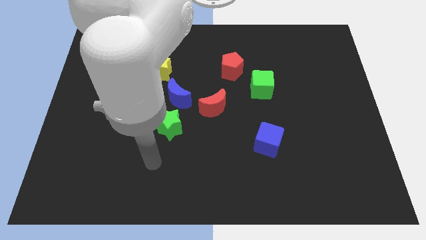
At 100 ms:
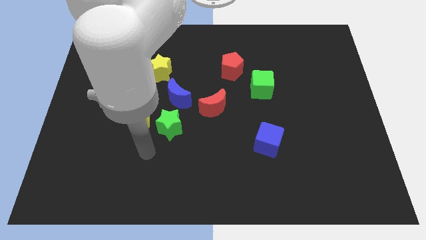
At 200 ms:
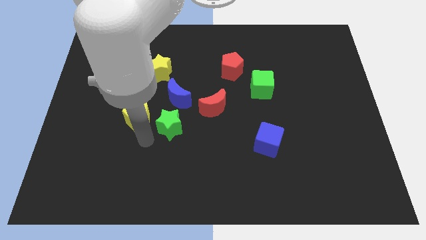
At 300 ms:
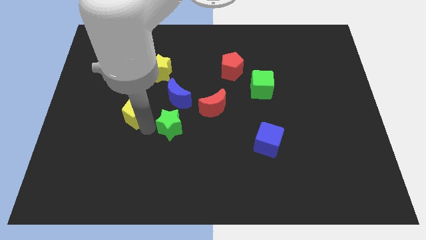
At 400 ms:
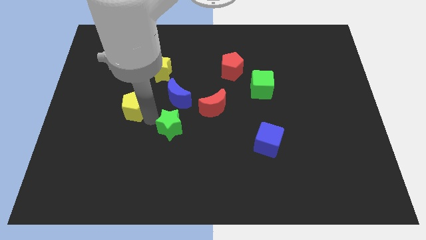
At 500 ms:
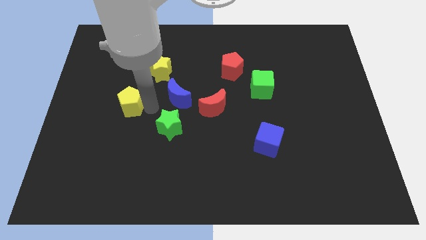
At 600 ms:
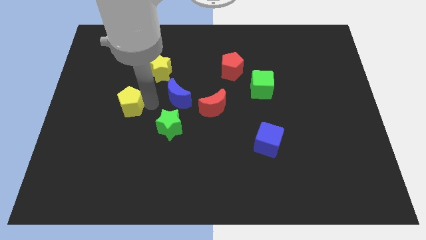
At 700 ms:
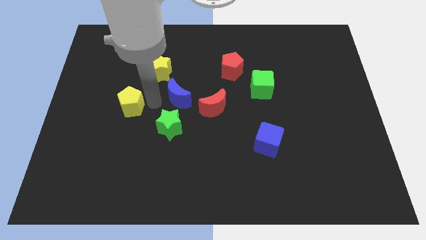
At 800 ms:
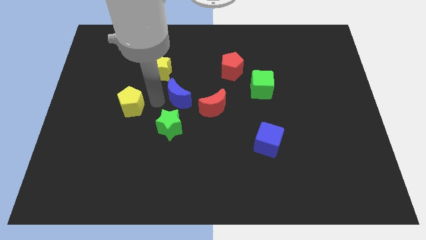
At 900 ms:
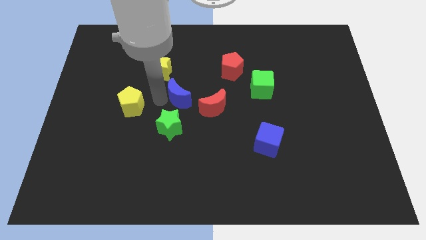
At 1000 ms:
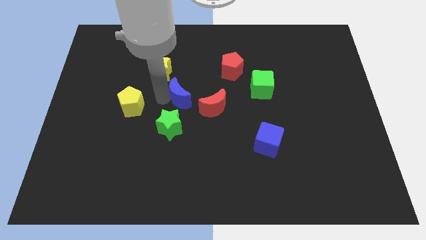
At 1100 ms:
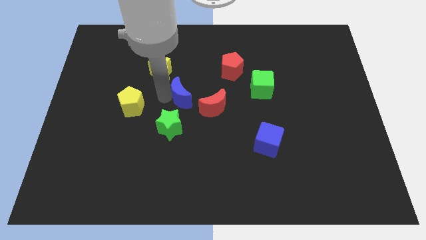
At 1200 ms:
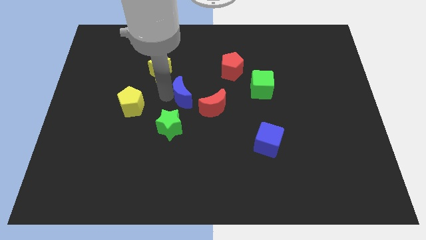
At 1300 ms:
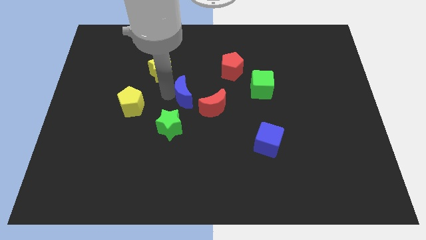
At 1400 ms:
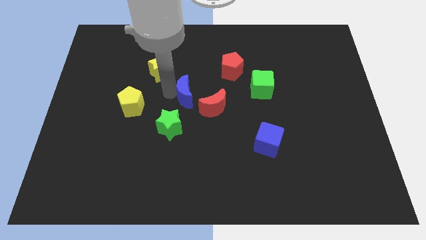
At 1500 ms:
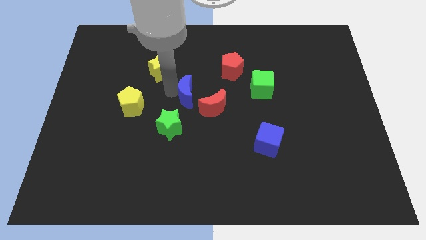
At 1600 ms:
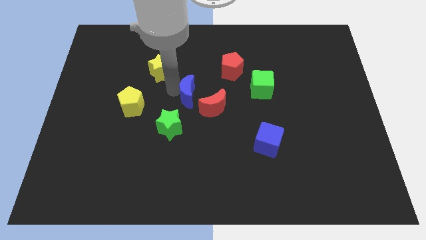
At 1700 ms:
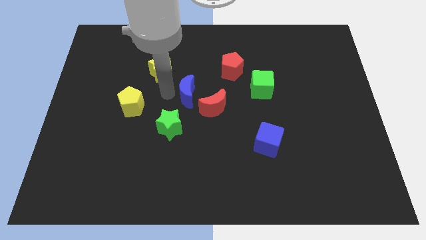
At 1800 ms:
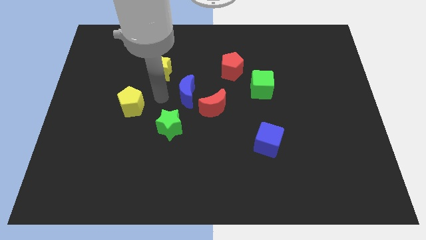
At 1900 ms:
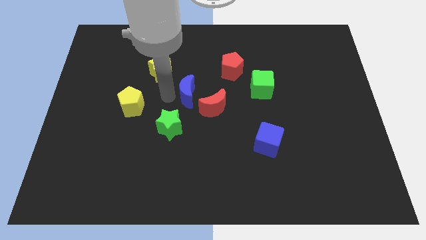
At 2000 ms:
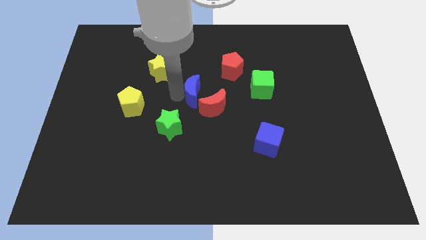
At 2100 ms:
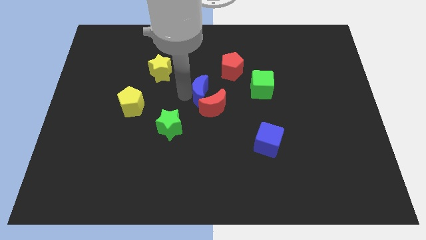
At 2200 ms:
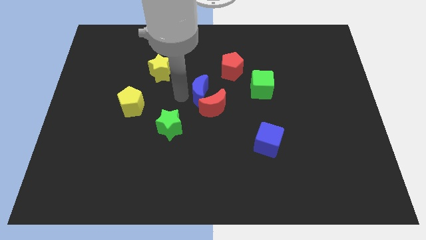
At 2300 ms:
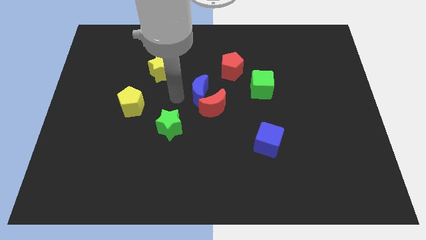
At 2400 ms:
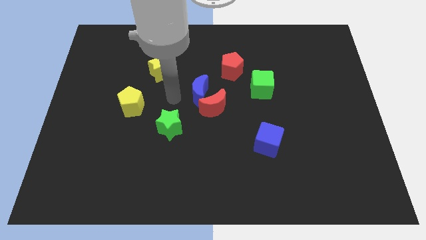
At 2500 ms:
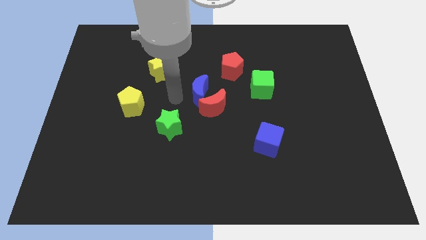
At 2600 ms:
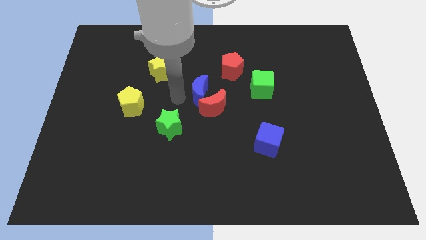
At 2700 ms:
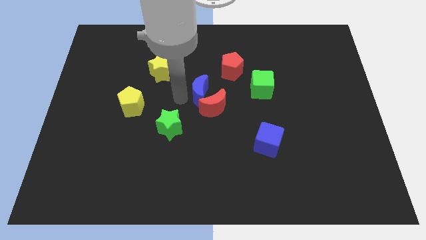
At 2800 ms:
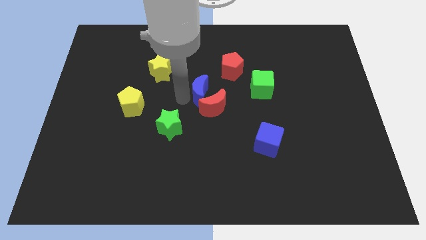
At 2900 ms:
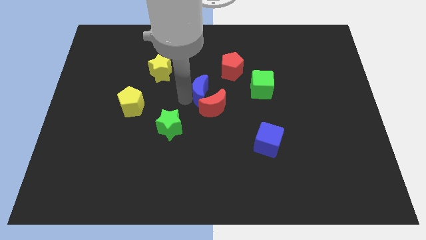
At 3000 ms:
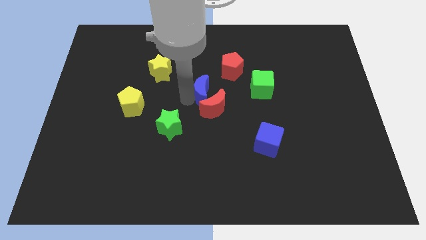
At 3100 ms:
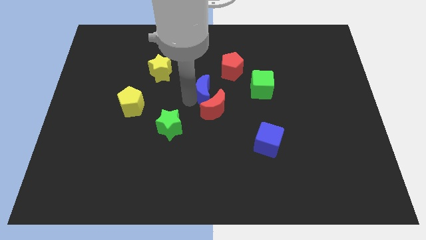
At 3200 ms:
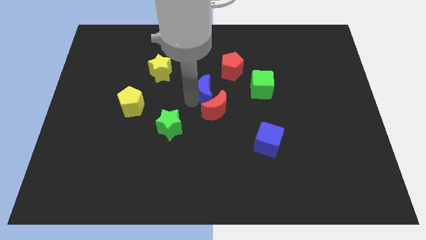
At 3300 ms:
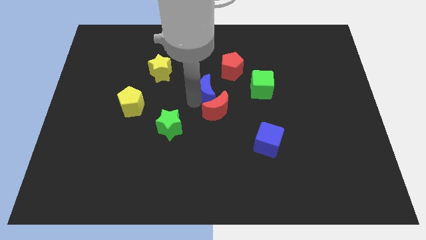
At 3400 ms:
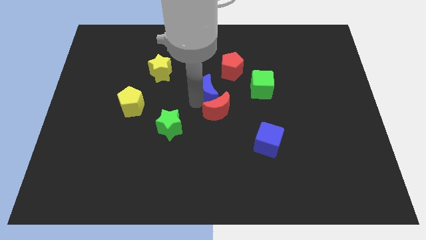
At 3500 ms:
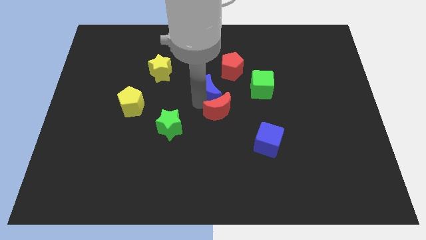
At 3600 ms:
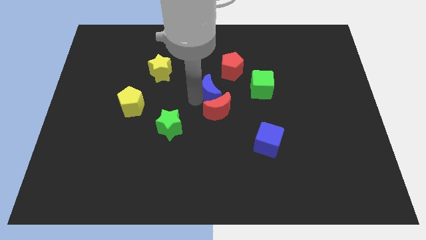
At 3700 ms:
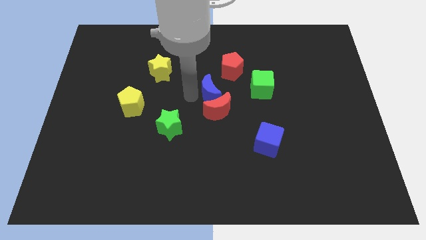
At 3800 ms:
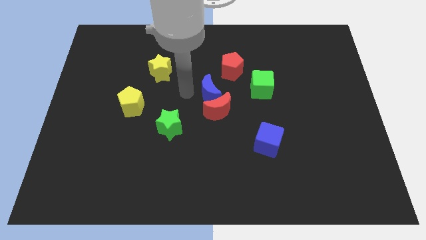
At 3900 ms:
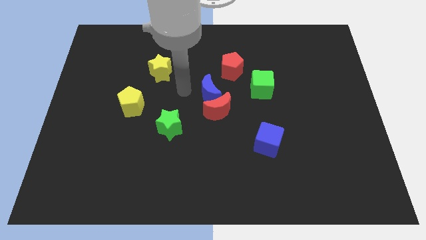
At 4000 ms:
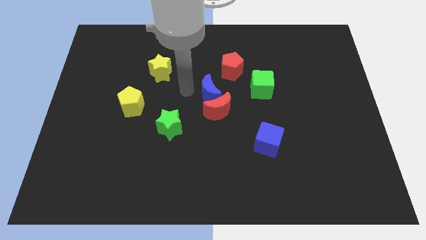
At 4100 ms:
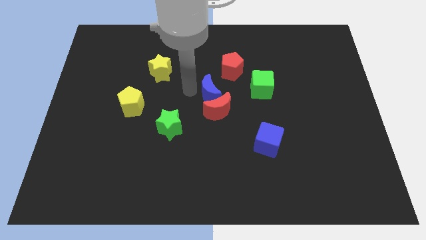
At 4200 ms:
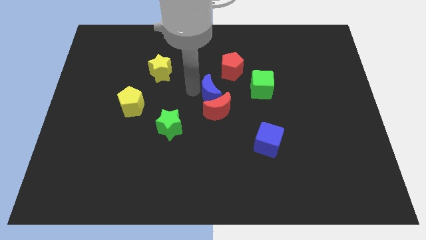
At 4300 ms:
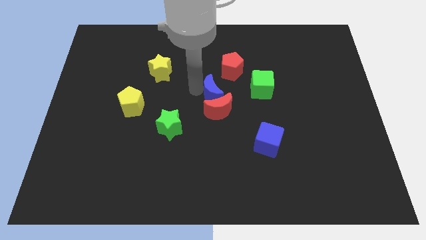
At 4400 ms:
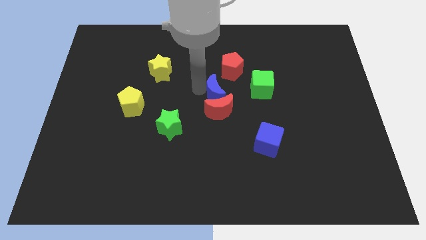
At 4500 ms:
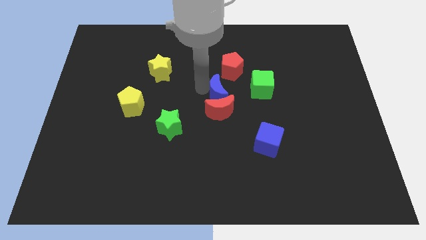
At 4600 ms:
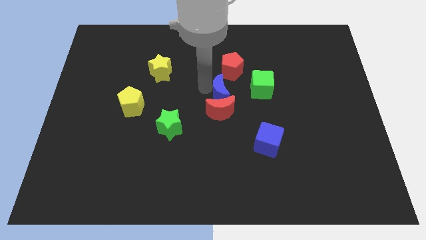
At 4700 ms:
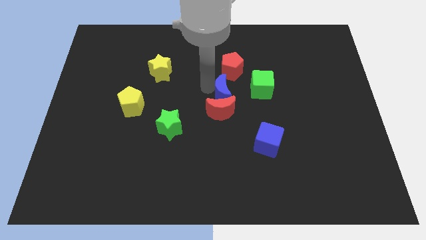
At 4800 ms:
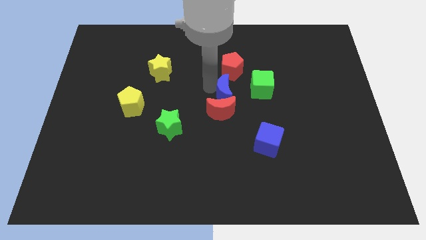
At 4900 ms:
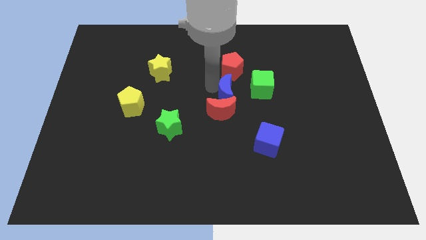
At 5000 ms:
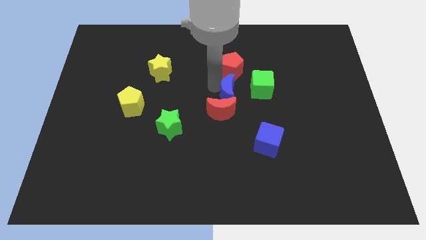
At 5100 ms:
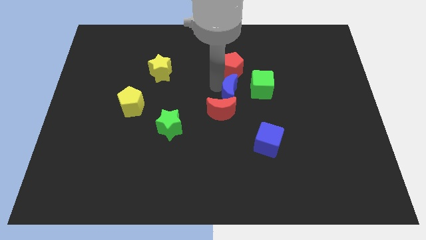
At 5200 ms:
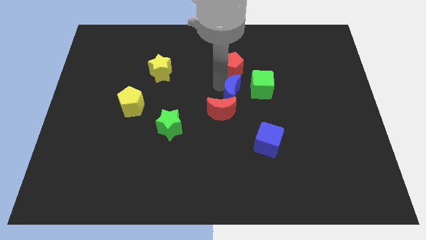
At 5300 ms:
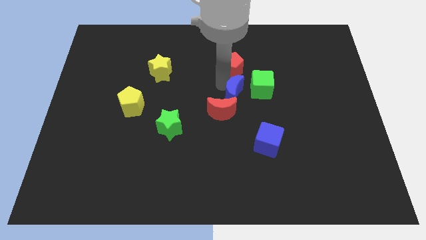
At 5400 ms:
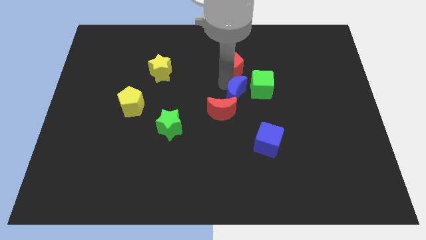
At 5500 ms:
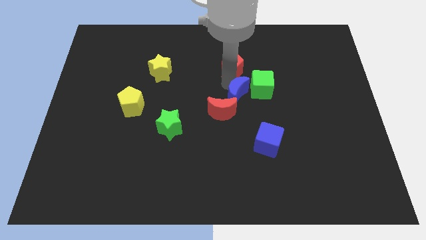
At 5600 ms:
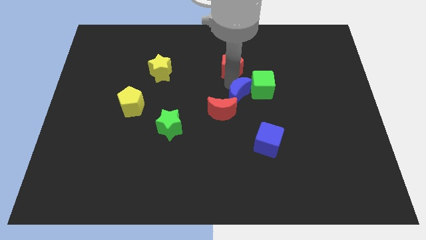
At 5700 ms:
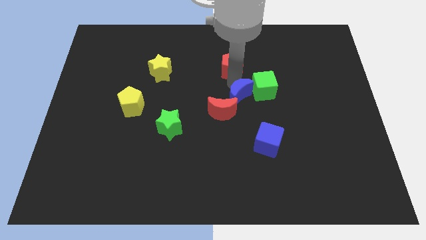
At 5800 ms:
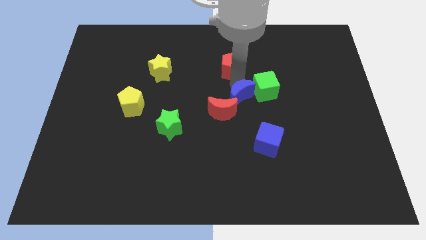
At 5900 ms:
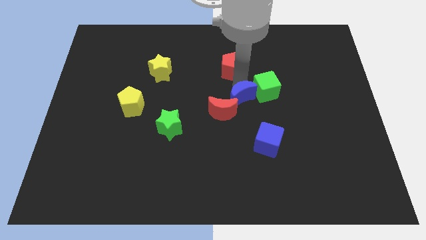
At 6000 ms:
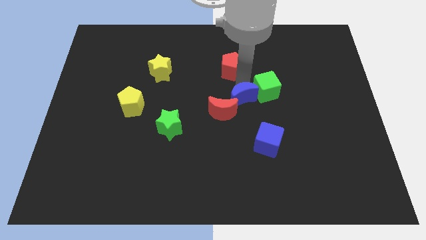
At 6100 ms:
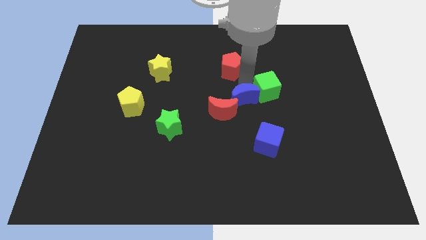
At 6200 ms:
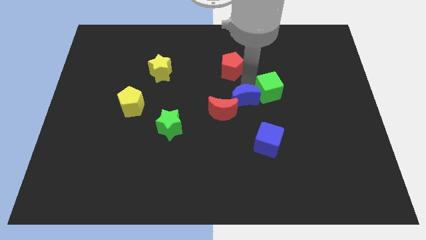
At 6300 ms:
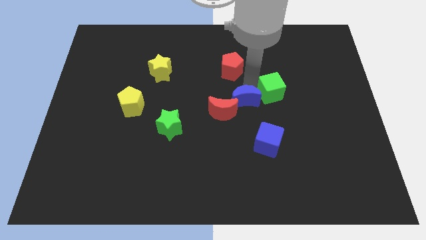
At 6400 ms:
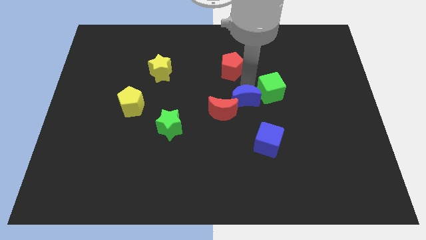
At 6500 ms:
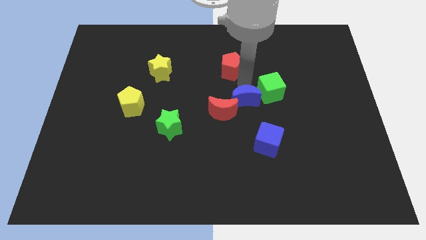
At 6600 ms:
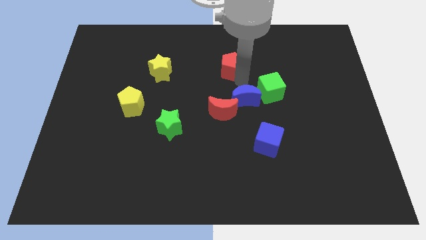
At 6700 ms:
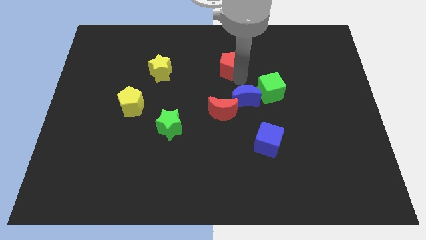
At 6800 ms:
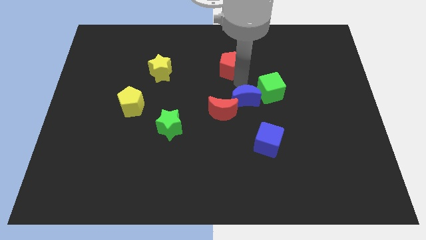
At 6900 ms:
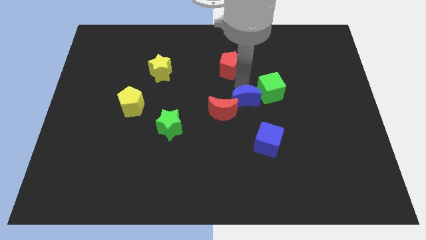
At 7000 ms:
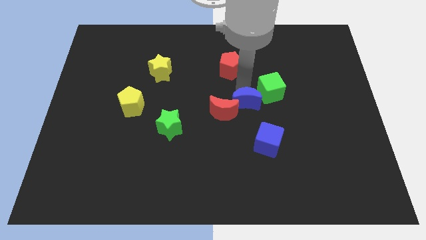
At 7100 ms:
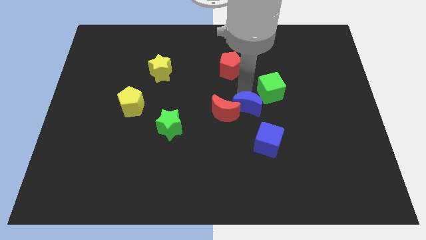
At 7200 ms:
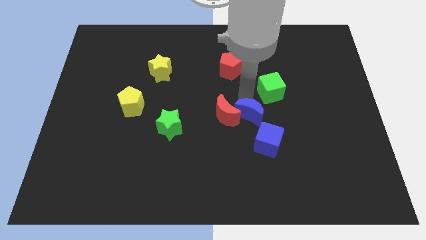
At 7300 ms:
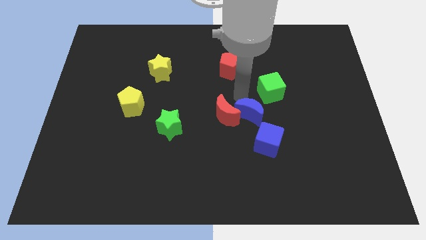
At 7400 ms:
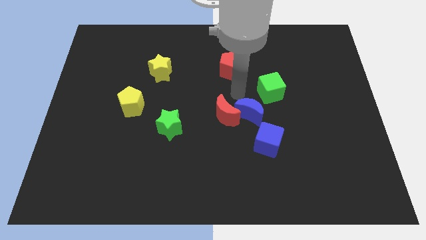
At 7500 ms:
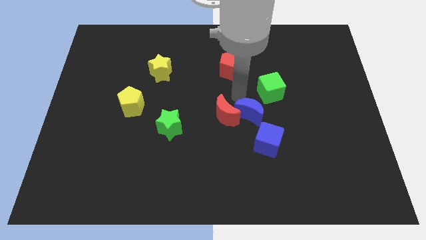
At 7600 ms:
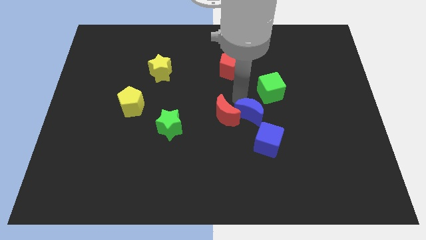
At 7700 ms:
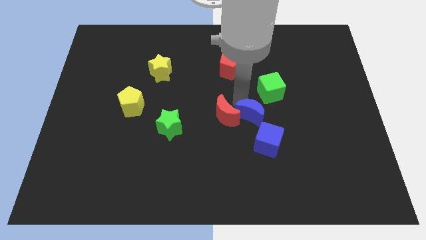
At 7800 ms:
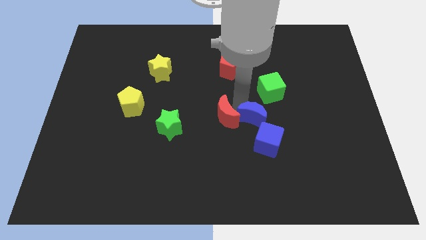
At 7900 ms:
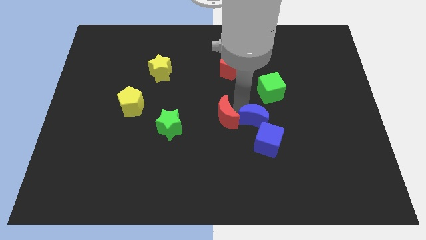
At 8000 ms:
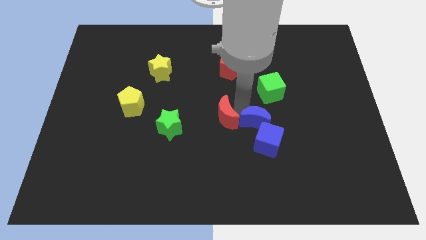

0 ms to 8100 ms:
move the blue moon to the blue cube

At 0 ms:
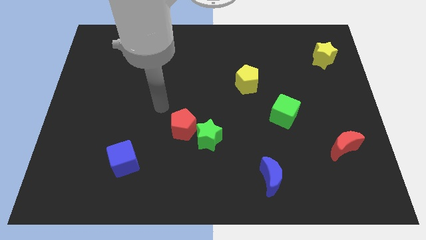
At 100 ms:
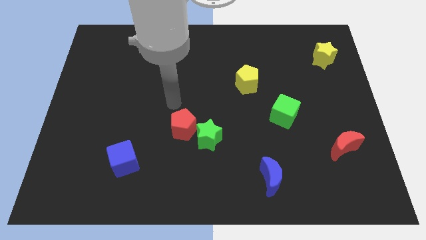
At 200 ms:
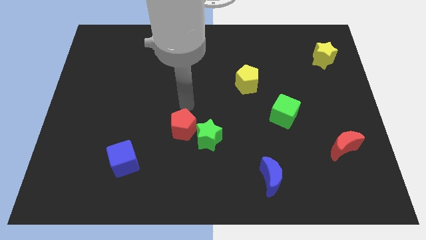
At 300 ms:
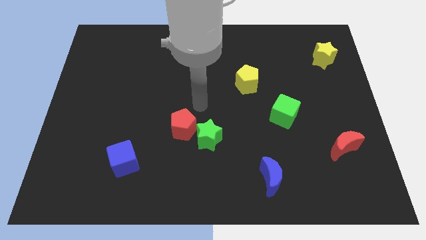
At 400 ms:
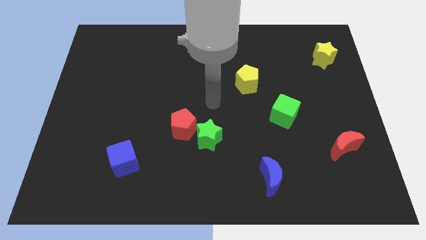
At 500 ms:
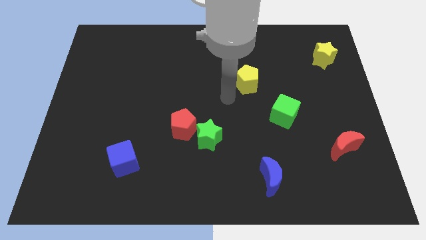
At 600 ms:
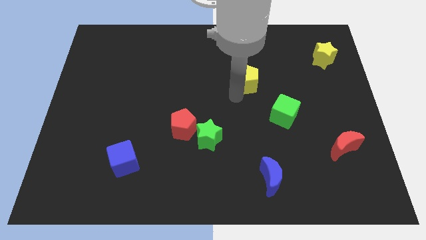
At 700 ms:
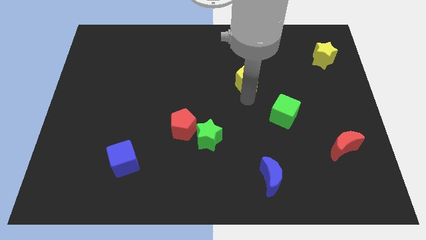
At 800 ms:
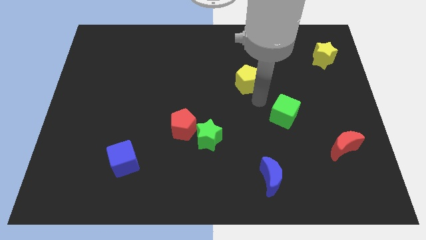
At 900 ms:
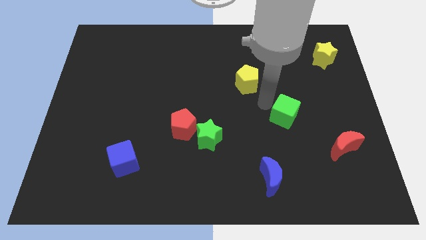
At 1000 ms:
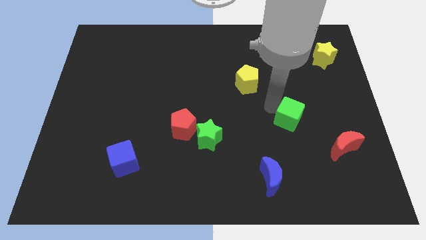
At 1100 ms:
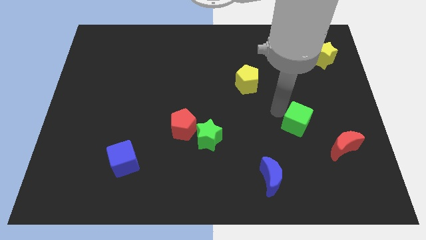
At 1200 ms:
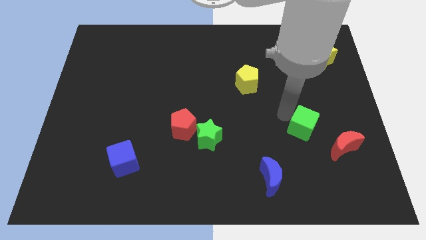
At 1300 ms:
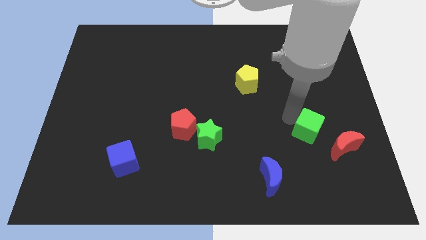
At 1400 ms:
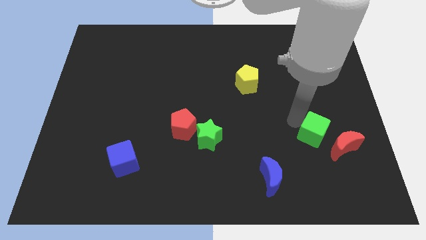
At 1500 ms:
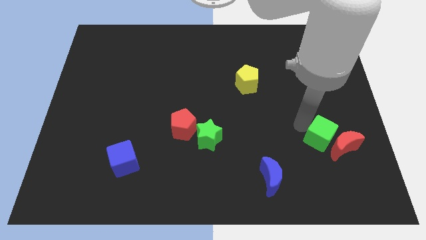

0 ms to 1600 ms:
slide the green cube towards the red moon
